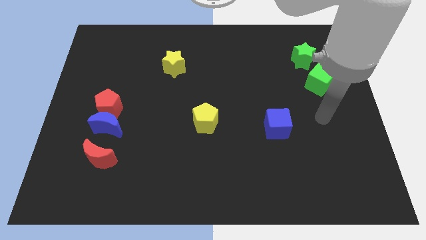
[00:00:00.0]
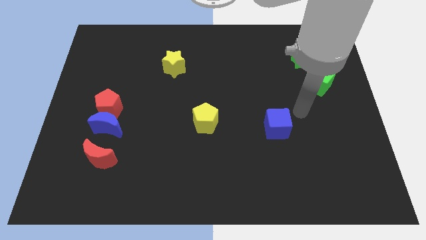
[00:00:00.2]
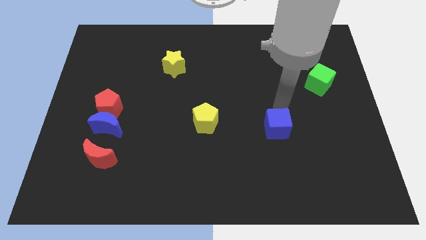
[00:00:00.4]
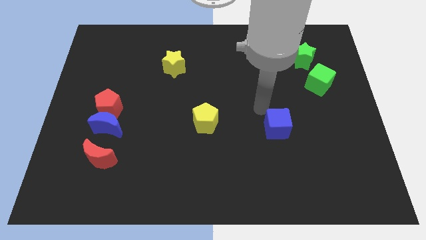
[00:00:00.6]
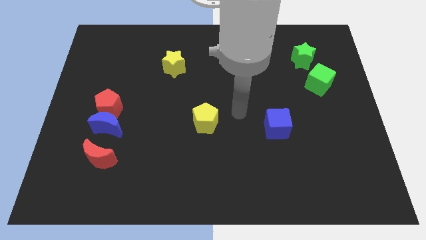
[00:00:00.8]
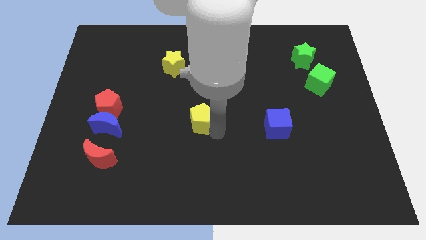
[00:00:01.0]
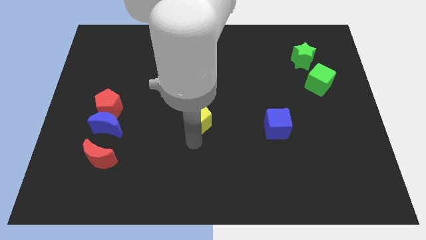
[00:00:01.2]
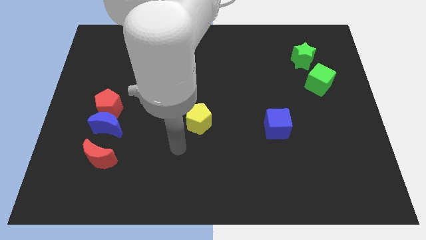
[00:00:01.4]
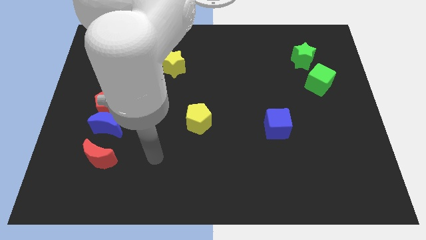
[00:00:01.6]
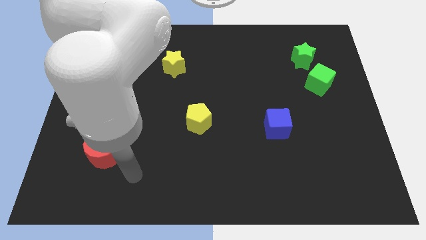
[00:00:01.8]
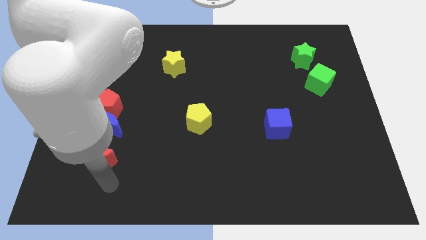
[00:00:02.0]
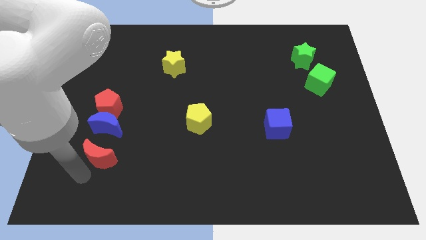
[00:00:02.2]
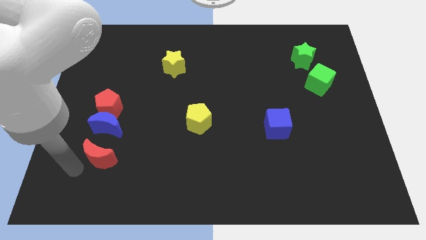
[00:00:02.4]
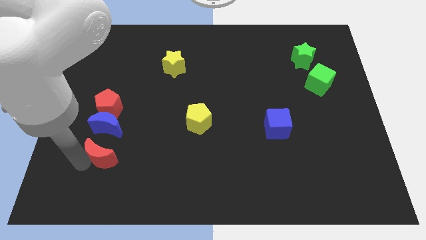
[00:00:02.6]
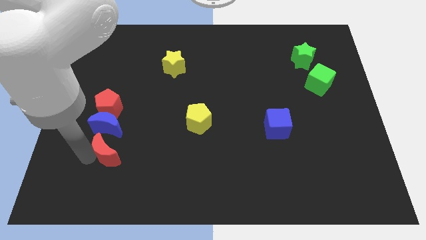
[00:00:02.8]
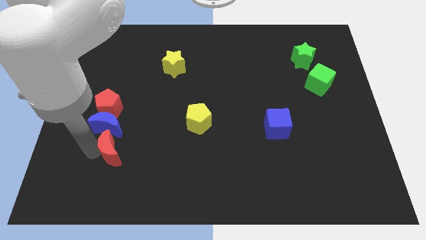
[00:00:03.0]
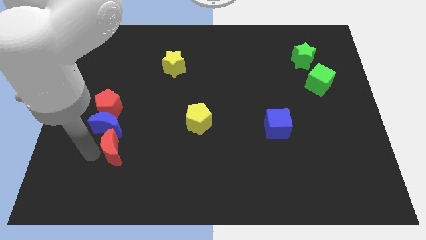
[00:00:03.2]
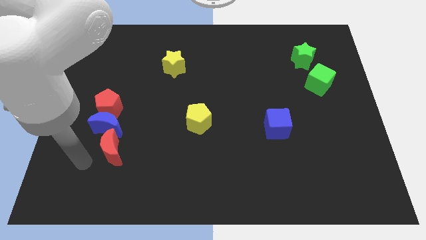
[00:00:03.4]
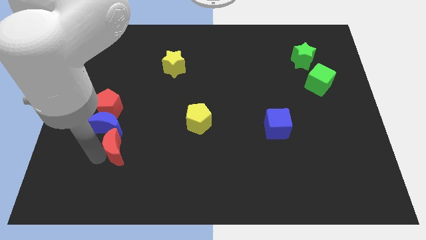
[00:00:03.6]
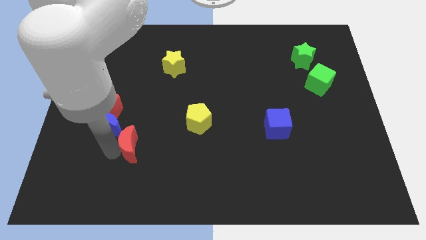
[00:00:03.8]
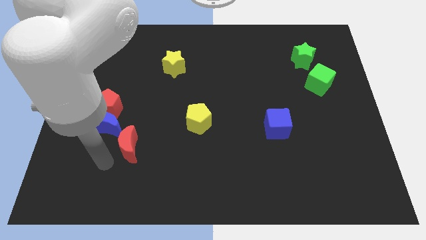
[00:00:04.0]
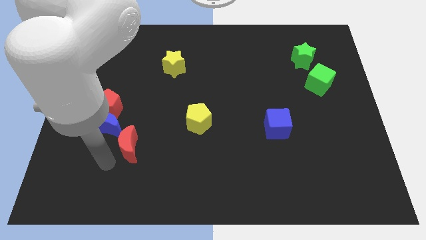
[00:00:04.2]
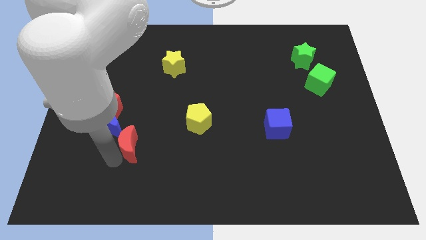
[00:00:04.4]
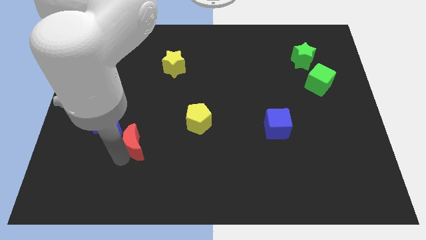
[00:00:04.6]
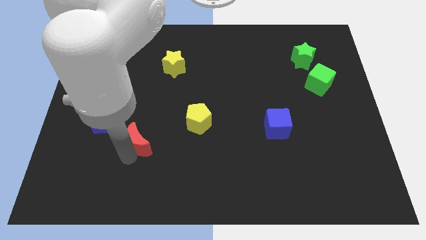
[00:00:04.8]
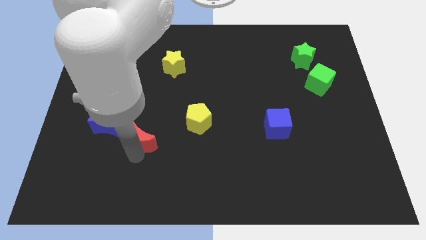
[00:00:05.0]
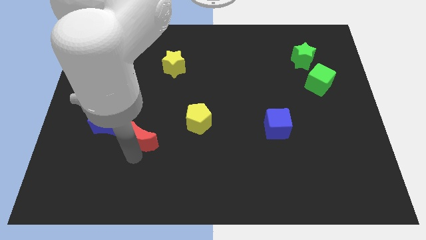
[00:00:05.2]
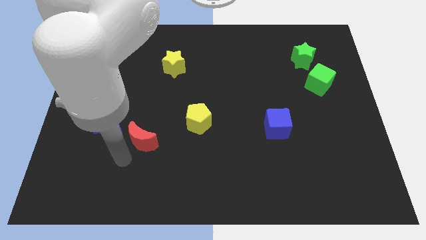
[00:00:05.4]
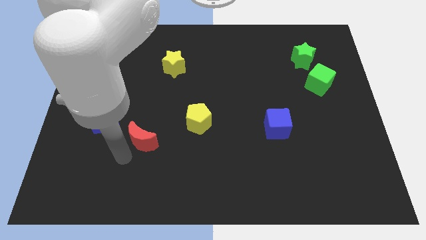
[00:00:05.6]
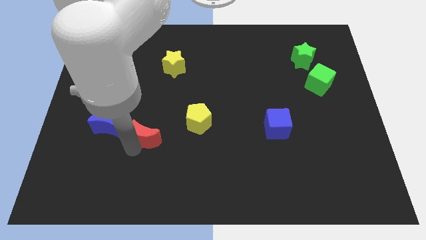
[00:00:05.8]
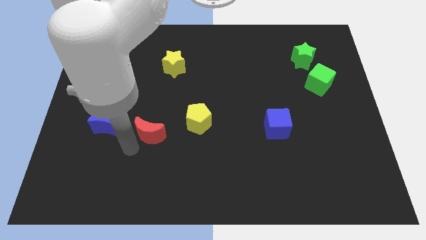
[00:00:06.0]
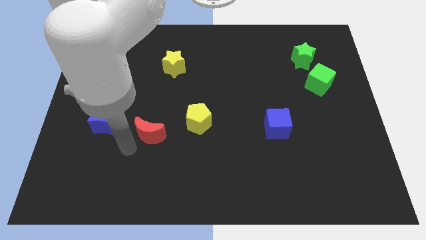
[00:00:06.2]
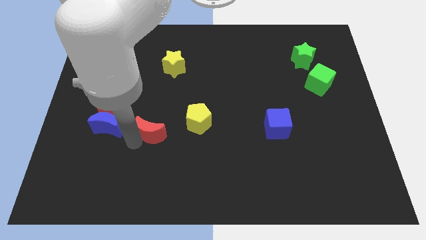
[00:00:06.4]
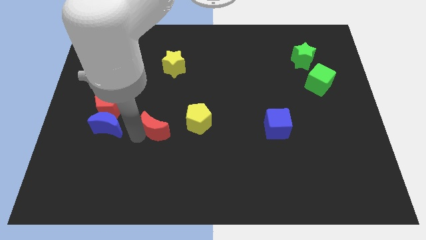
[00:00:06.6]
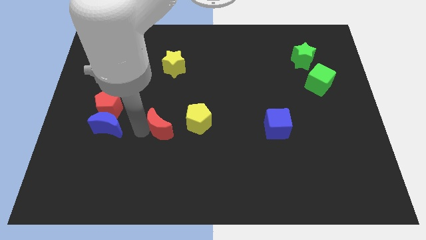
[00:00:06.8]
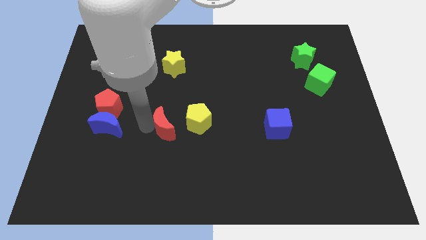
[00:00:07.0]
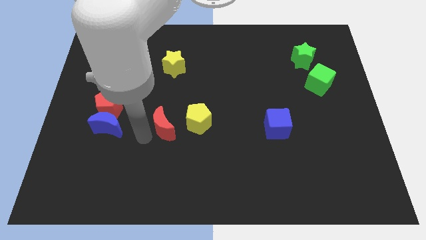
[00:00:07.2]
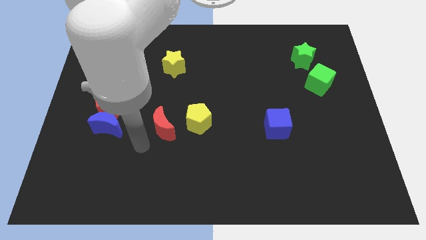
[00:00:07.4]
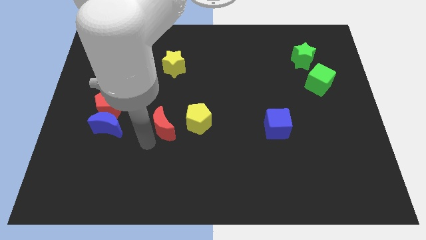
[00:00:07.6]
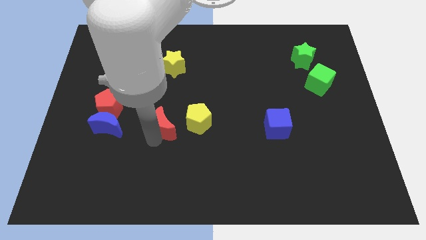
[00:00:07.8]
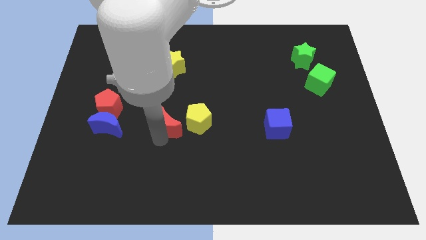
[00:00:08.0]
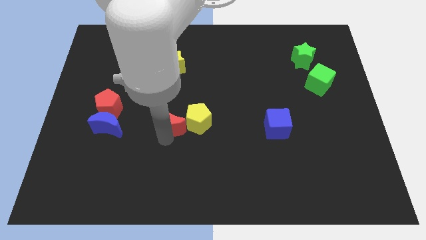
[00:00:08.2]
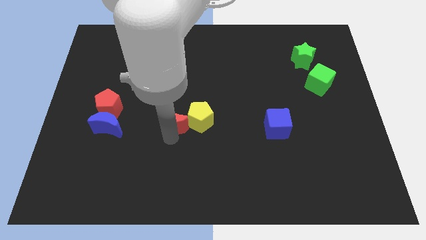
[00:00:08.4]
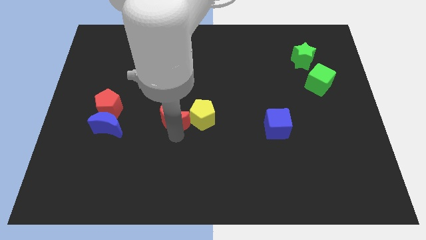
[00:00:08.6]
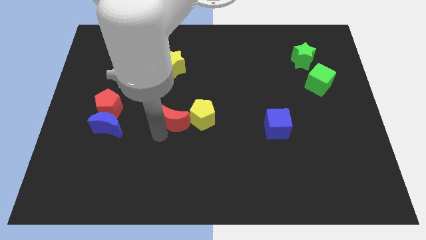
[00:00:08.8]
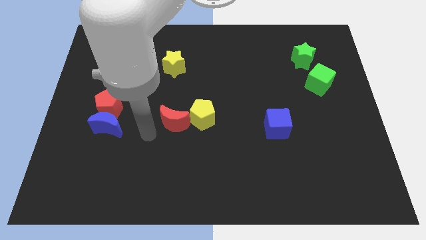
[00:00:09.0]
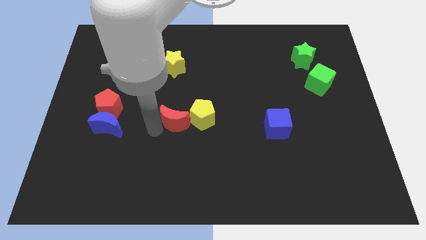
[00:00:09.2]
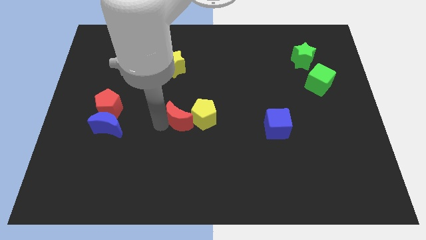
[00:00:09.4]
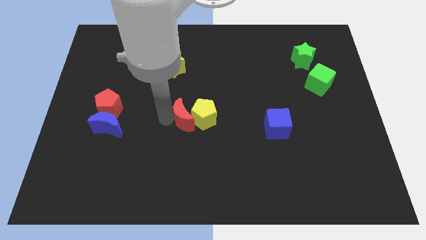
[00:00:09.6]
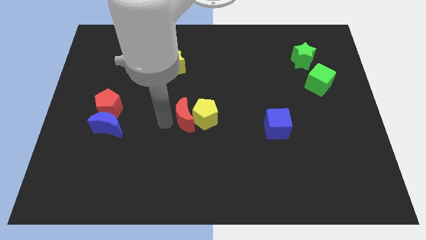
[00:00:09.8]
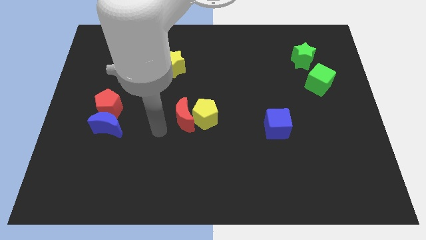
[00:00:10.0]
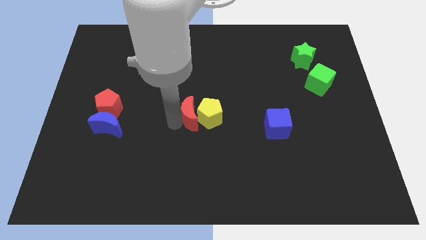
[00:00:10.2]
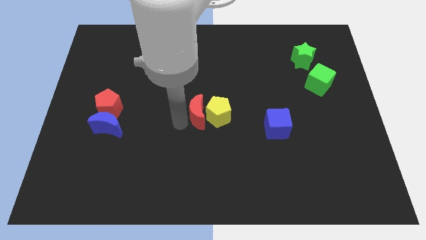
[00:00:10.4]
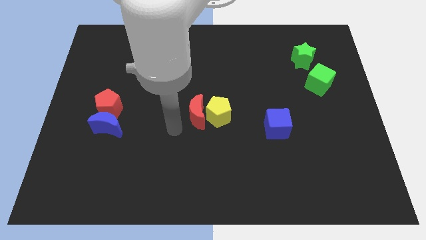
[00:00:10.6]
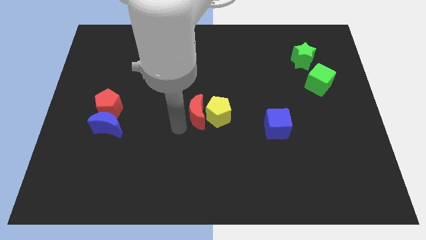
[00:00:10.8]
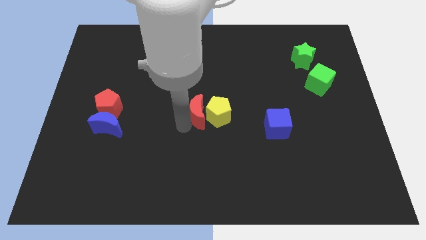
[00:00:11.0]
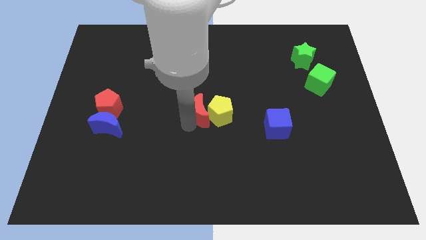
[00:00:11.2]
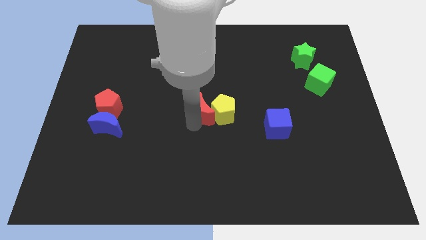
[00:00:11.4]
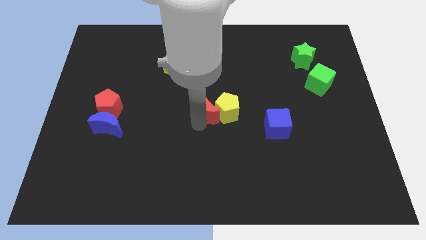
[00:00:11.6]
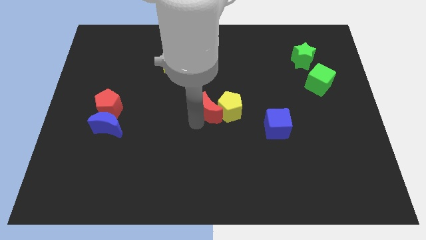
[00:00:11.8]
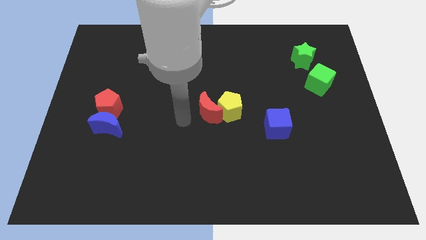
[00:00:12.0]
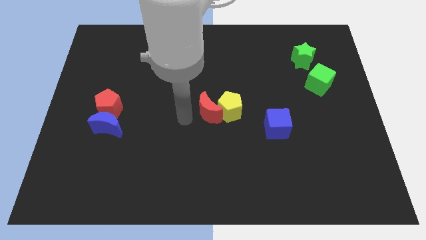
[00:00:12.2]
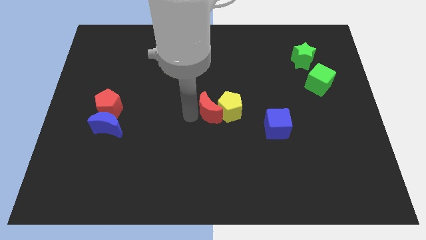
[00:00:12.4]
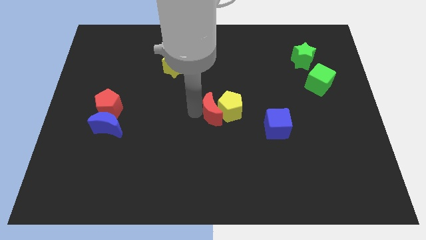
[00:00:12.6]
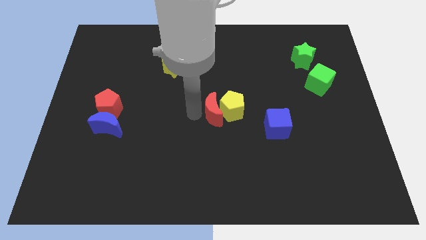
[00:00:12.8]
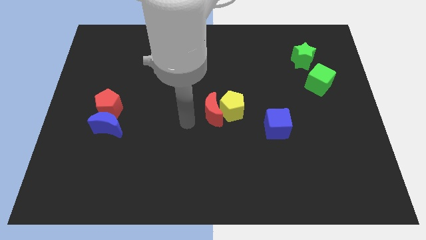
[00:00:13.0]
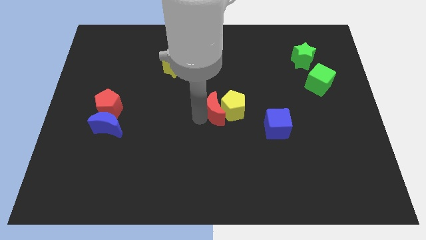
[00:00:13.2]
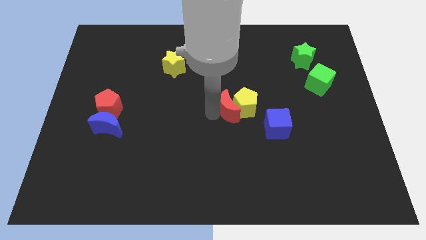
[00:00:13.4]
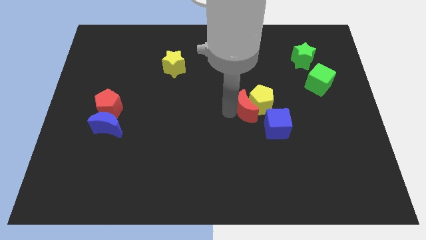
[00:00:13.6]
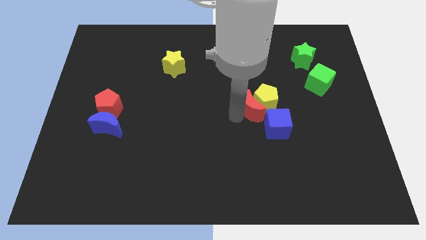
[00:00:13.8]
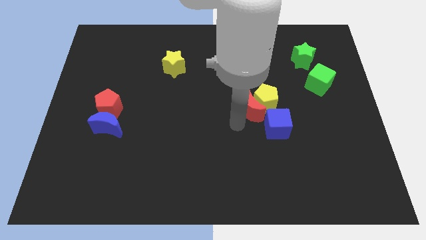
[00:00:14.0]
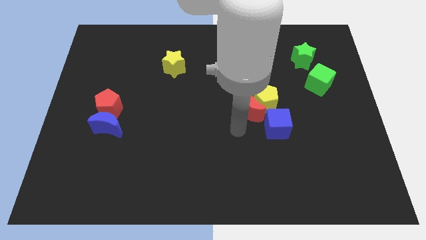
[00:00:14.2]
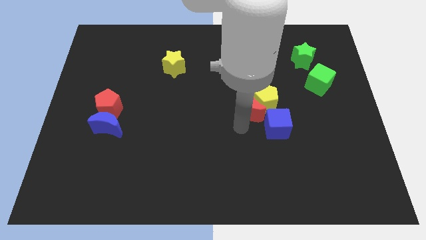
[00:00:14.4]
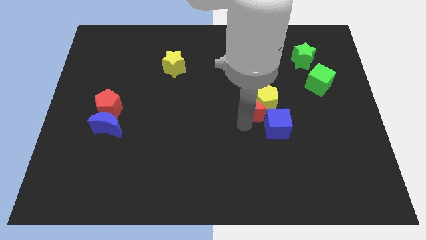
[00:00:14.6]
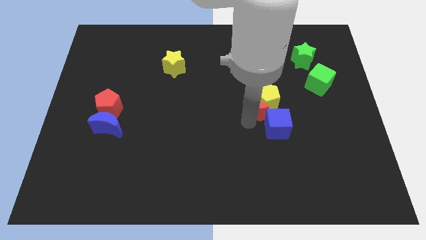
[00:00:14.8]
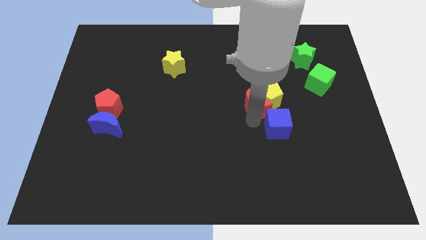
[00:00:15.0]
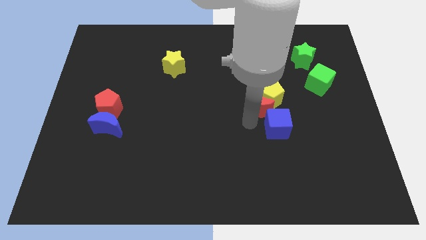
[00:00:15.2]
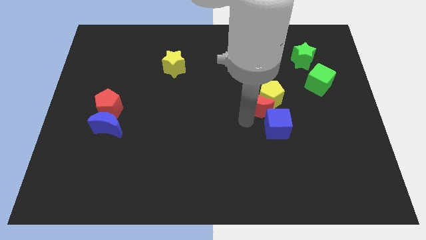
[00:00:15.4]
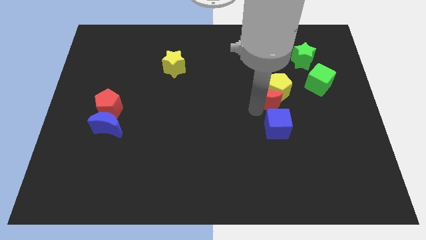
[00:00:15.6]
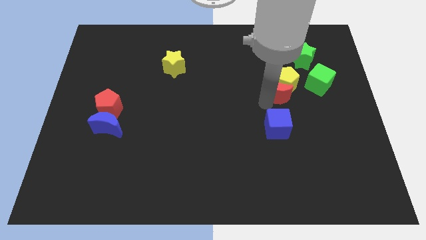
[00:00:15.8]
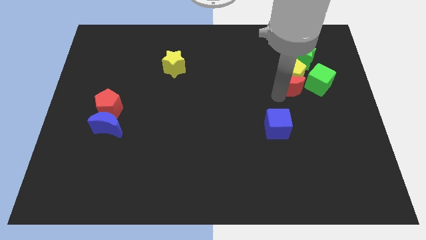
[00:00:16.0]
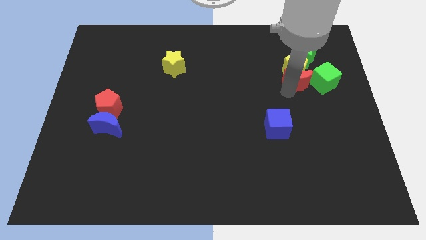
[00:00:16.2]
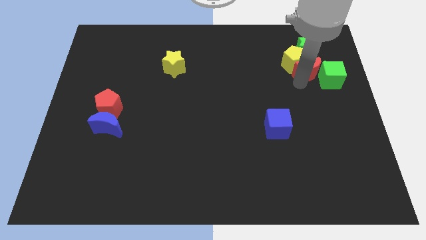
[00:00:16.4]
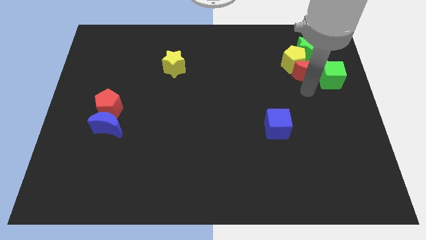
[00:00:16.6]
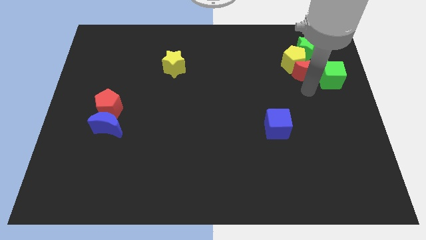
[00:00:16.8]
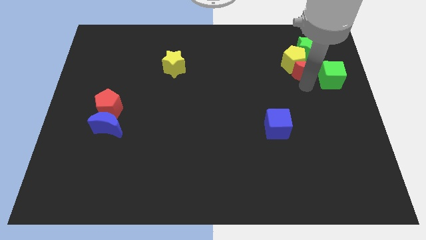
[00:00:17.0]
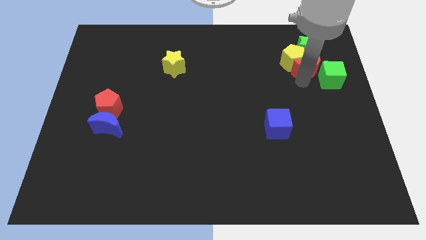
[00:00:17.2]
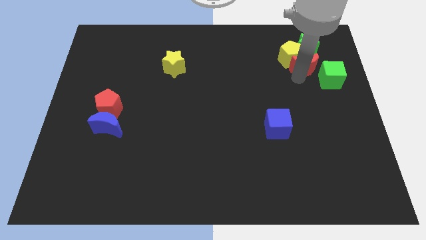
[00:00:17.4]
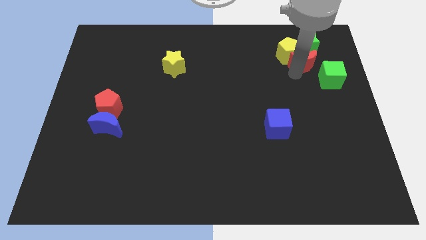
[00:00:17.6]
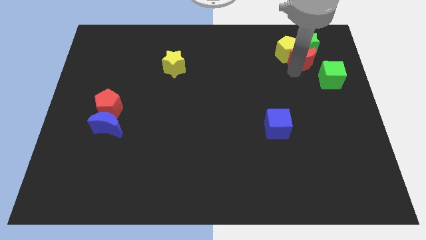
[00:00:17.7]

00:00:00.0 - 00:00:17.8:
put the red moon to the green star
